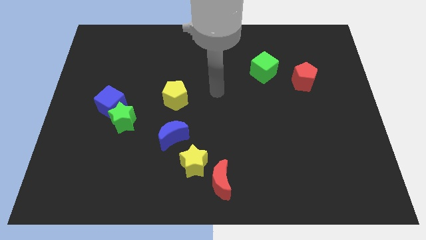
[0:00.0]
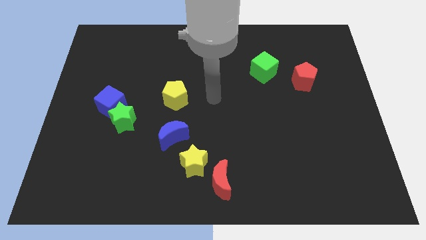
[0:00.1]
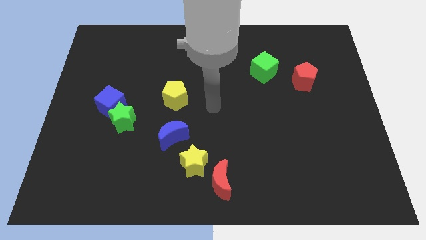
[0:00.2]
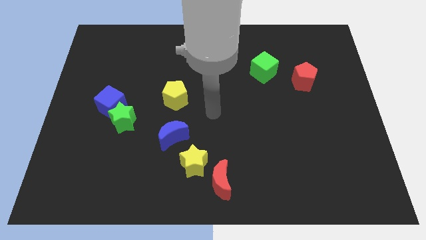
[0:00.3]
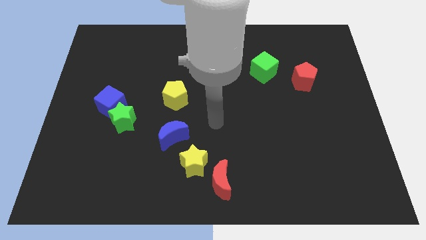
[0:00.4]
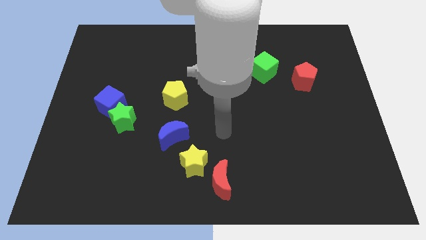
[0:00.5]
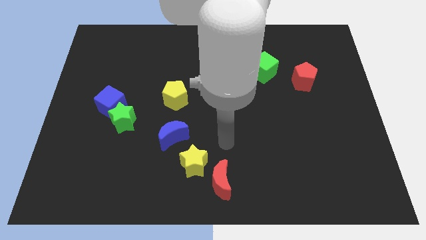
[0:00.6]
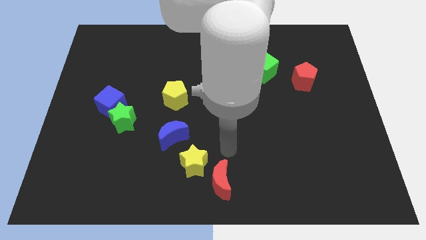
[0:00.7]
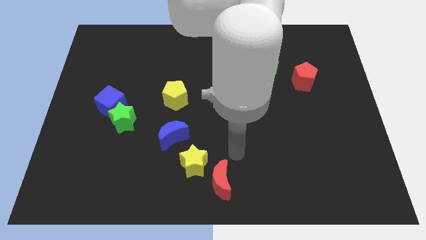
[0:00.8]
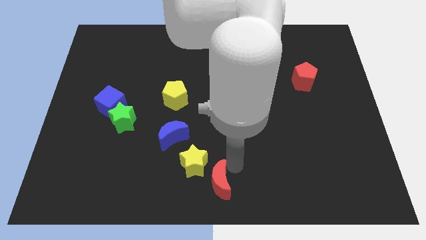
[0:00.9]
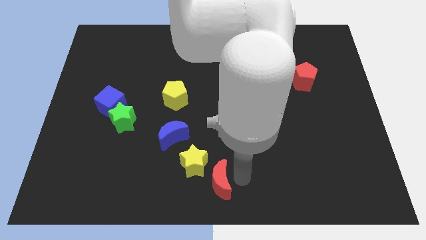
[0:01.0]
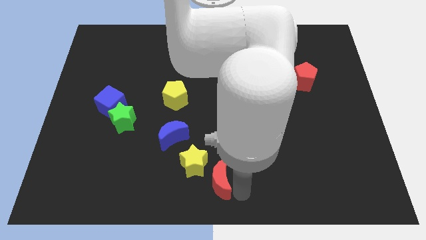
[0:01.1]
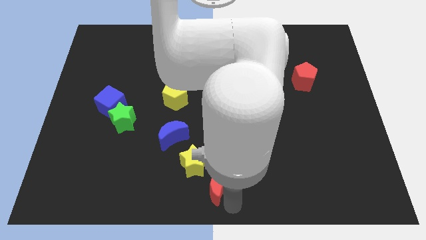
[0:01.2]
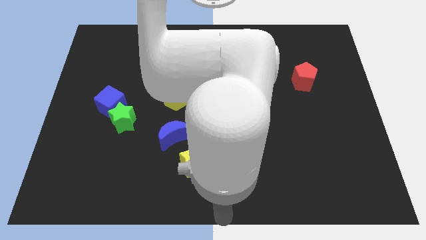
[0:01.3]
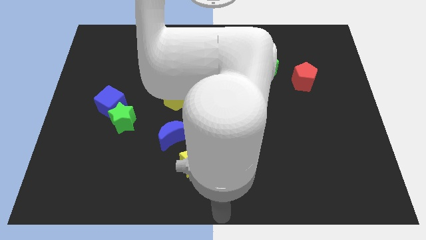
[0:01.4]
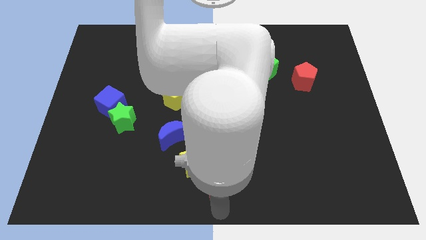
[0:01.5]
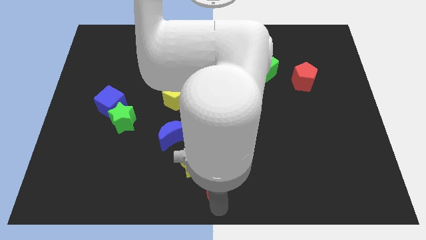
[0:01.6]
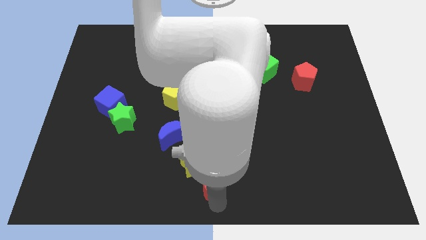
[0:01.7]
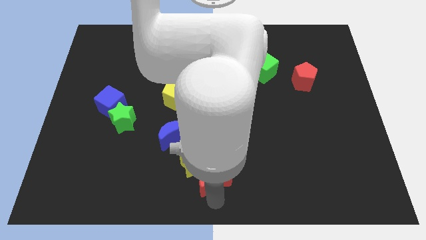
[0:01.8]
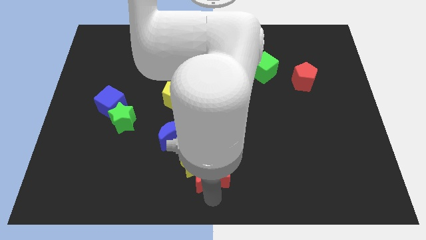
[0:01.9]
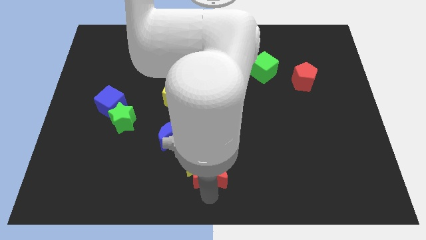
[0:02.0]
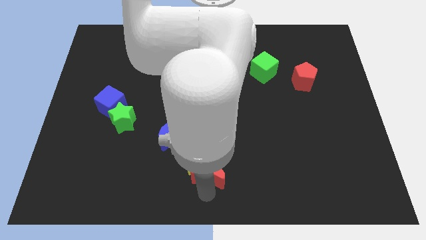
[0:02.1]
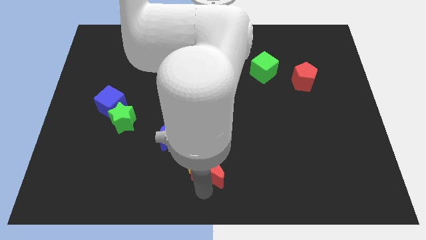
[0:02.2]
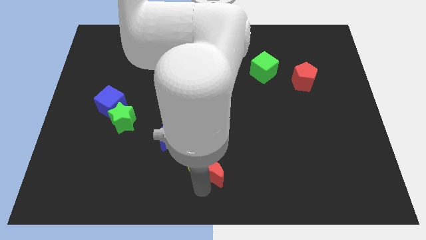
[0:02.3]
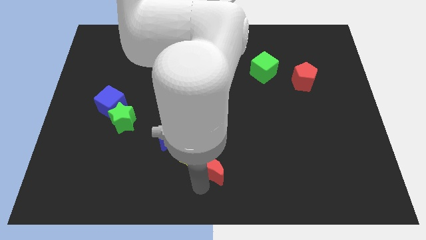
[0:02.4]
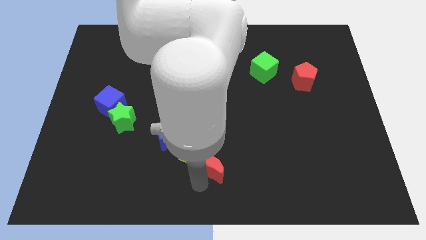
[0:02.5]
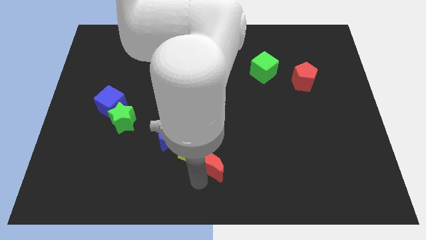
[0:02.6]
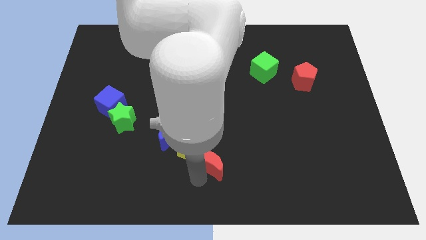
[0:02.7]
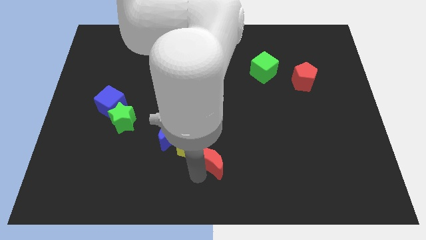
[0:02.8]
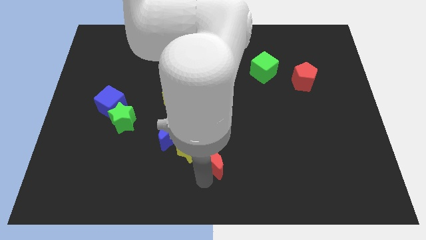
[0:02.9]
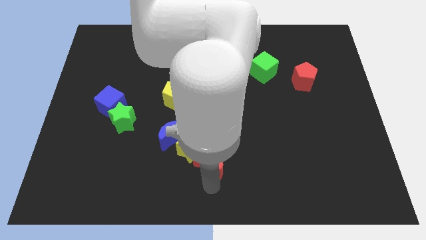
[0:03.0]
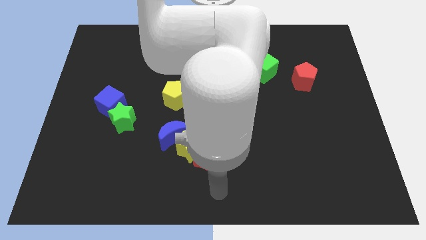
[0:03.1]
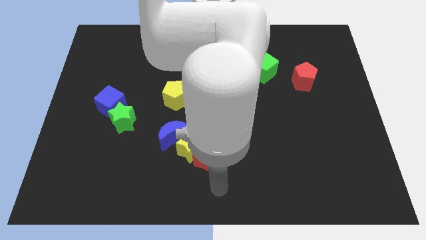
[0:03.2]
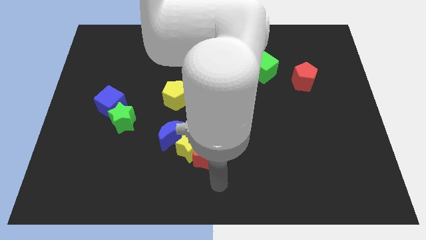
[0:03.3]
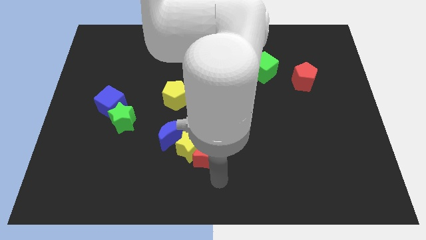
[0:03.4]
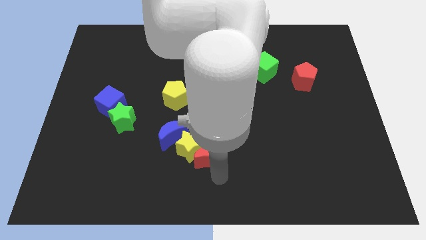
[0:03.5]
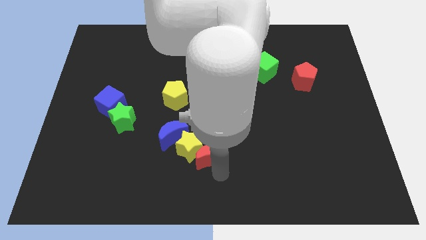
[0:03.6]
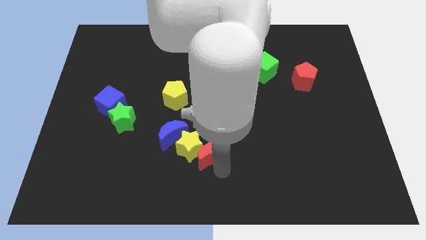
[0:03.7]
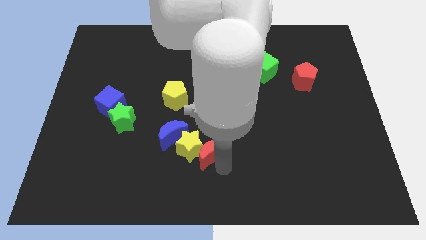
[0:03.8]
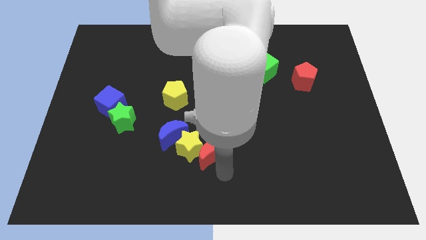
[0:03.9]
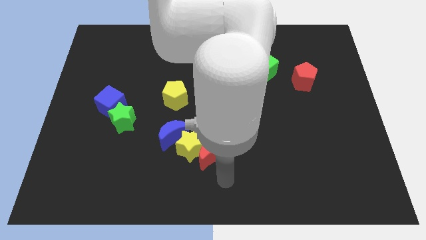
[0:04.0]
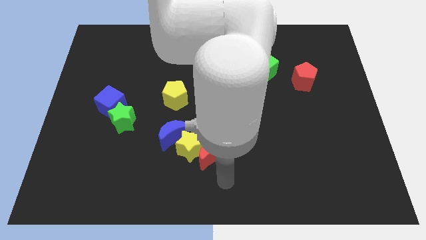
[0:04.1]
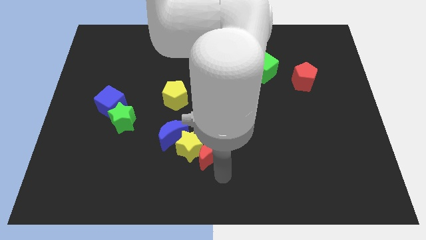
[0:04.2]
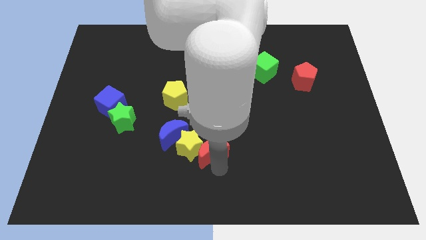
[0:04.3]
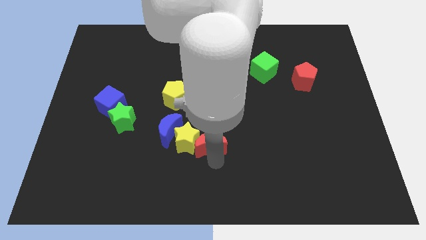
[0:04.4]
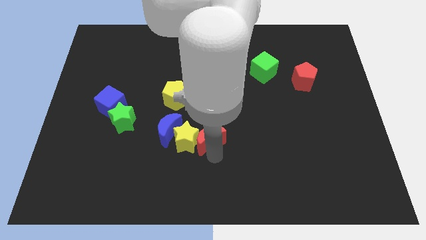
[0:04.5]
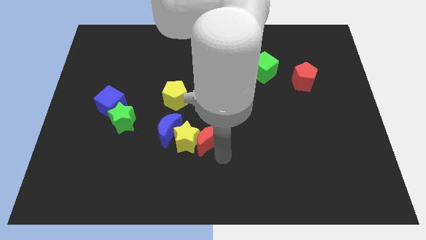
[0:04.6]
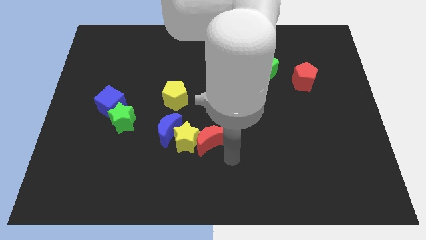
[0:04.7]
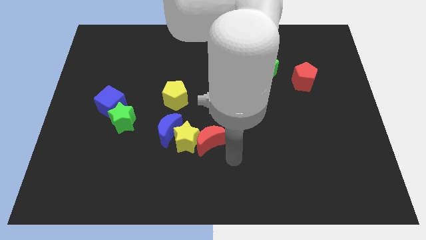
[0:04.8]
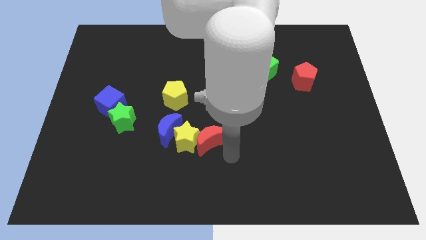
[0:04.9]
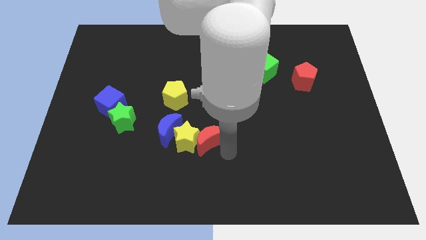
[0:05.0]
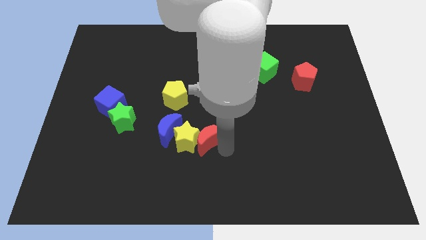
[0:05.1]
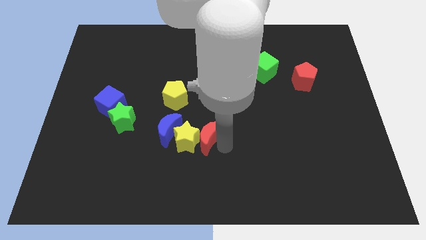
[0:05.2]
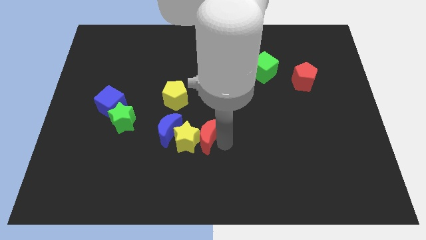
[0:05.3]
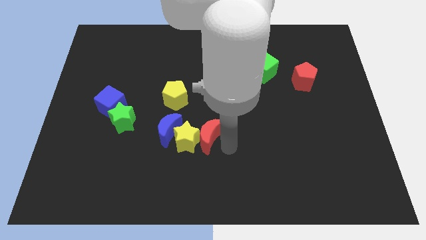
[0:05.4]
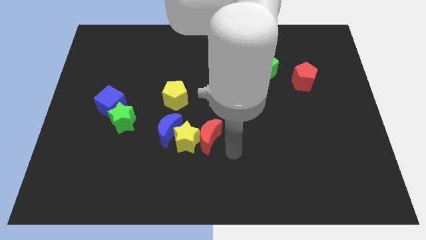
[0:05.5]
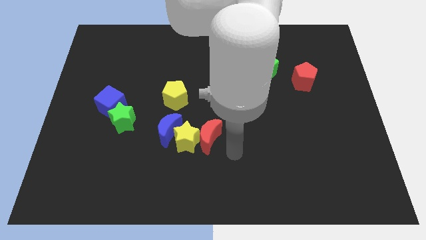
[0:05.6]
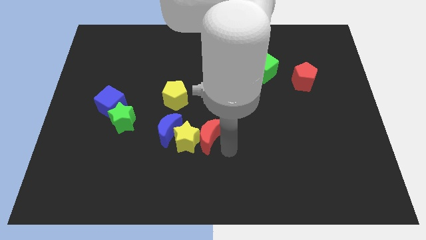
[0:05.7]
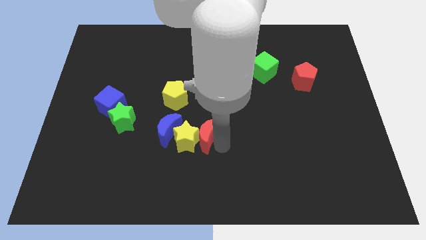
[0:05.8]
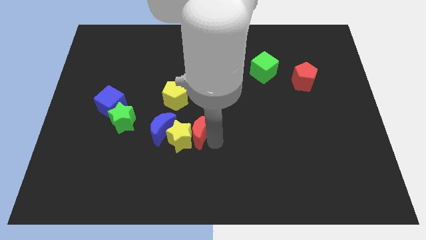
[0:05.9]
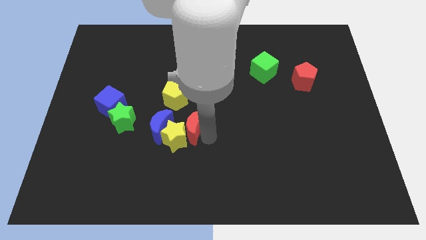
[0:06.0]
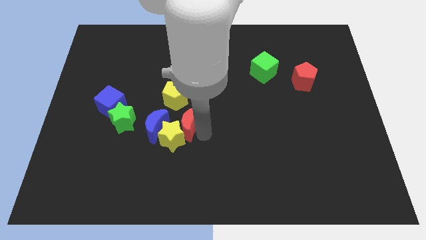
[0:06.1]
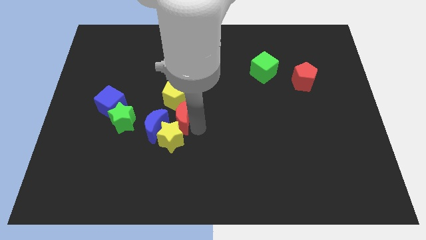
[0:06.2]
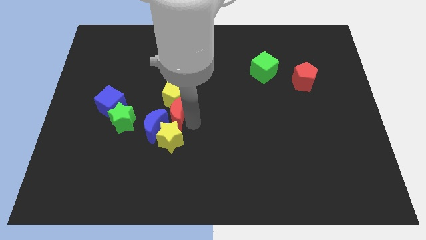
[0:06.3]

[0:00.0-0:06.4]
push the red moon to the bottom left of the yellow pentagon

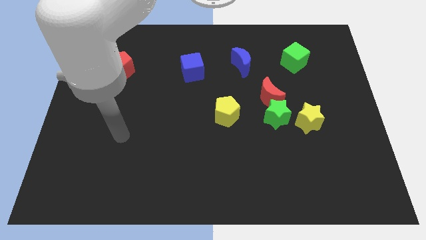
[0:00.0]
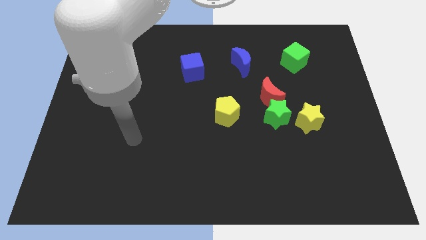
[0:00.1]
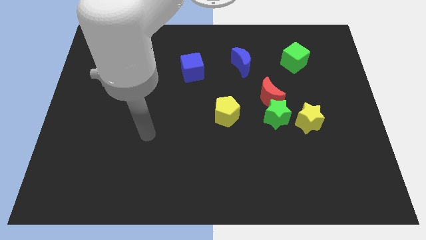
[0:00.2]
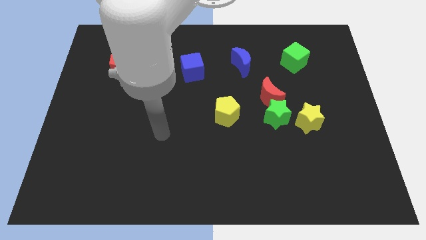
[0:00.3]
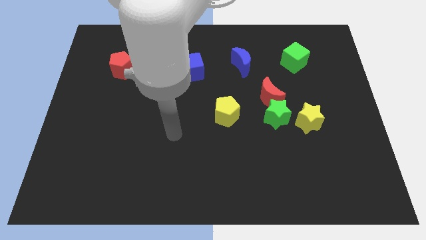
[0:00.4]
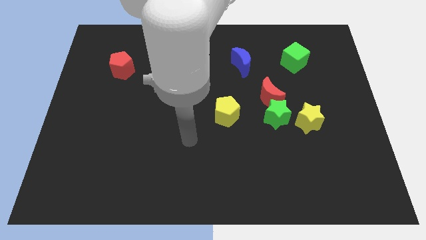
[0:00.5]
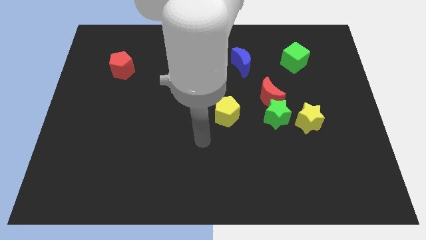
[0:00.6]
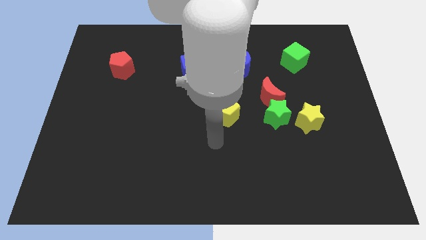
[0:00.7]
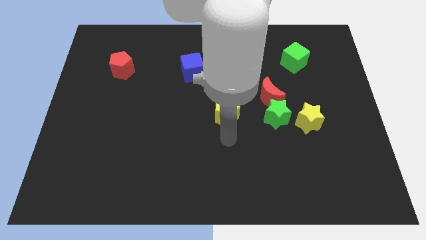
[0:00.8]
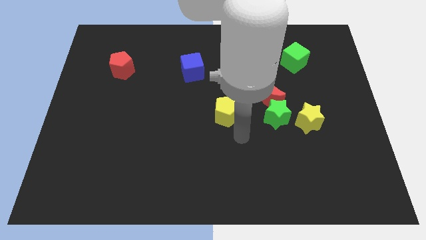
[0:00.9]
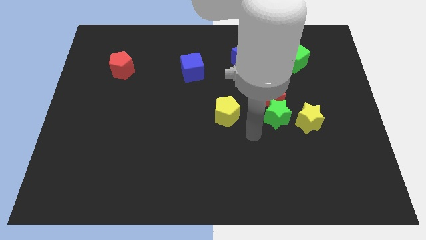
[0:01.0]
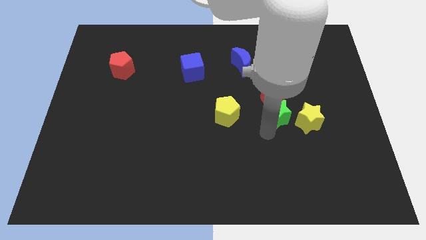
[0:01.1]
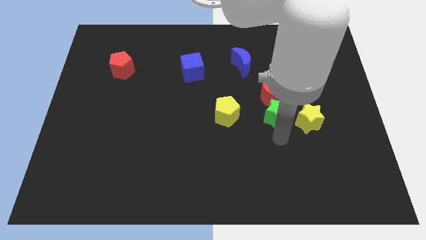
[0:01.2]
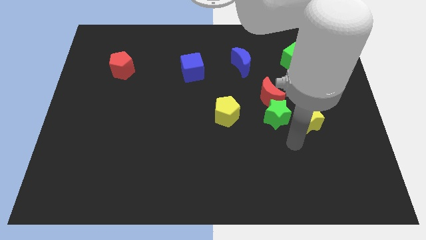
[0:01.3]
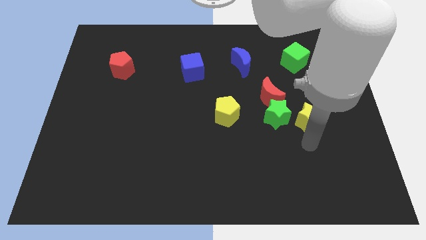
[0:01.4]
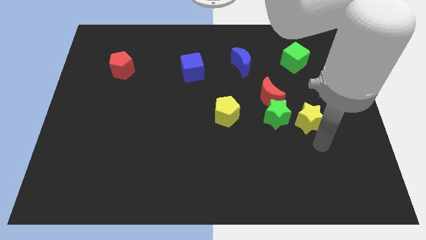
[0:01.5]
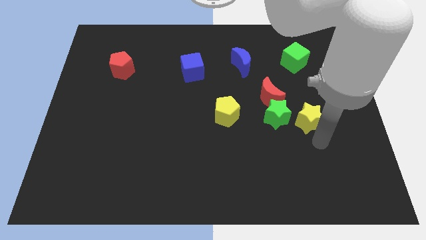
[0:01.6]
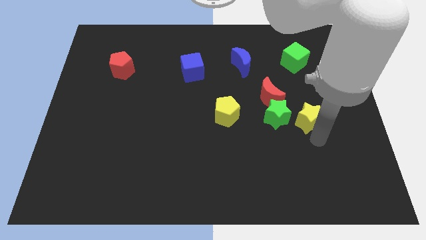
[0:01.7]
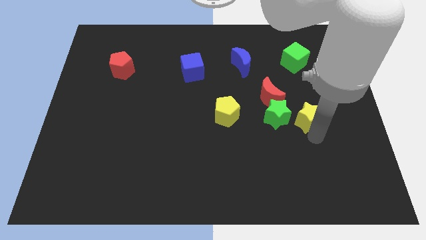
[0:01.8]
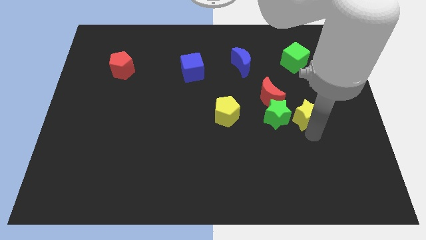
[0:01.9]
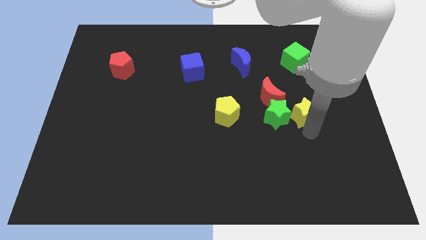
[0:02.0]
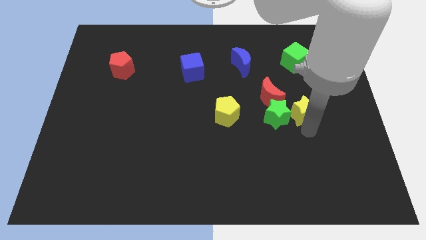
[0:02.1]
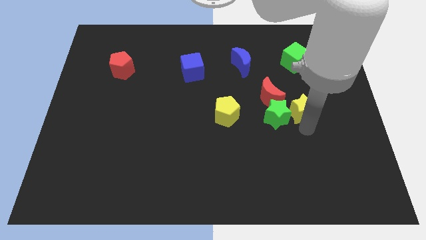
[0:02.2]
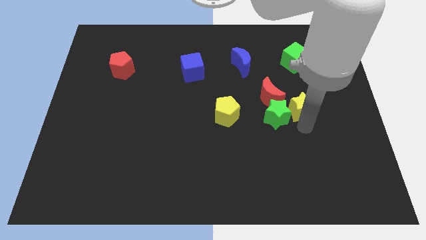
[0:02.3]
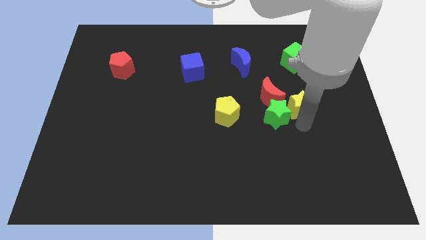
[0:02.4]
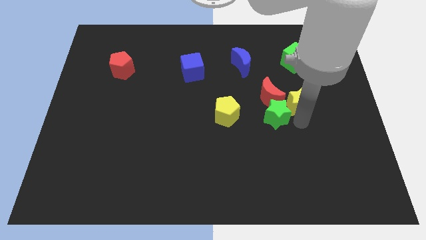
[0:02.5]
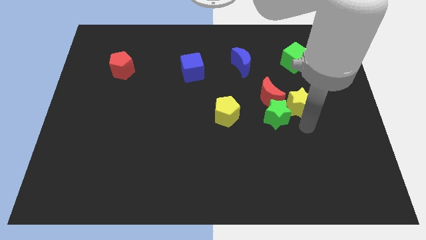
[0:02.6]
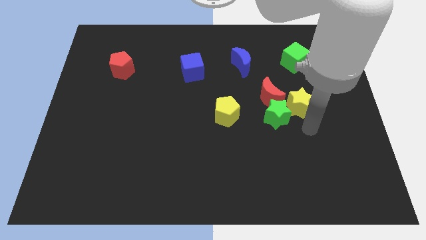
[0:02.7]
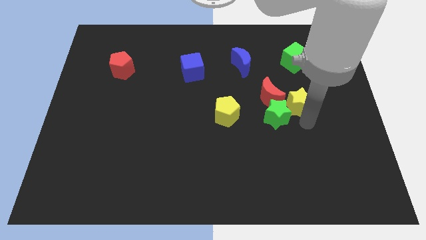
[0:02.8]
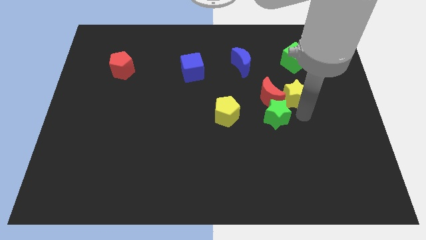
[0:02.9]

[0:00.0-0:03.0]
slide the yellow star to the top right side of the red moon
